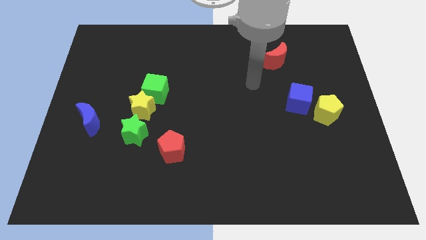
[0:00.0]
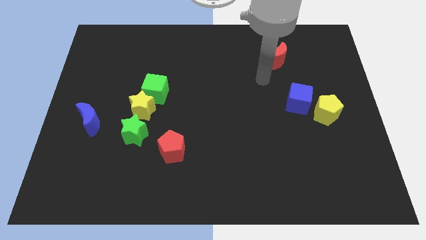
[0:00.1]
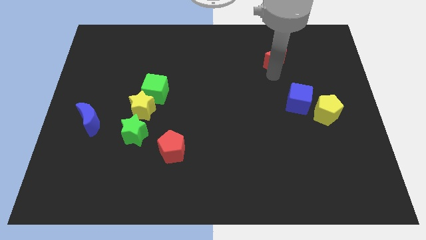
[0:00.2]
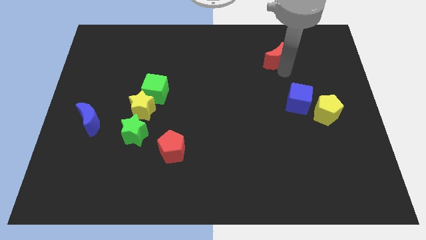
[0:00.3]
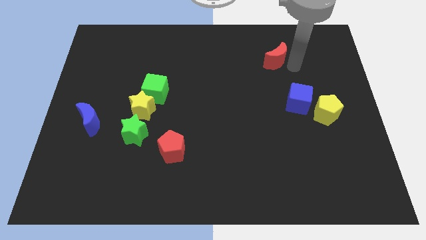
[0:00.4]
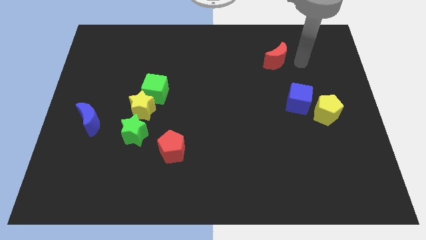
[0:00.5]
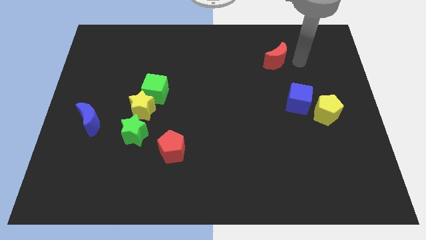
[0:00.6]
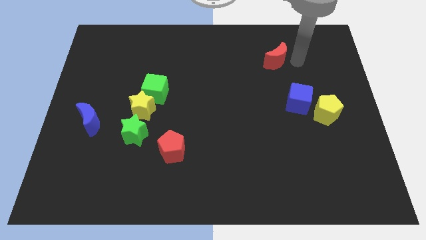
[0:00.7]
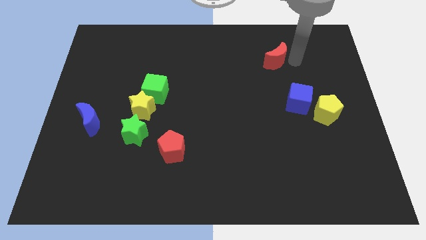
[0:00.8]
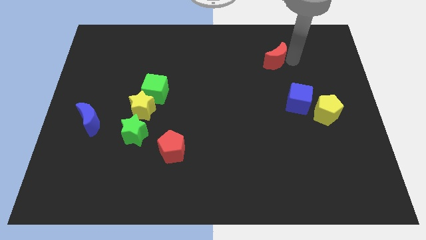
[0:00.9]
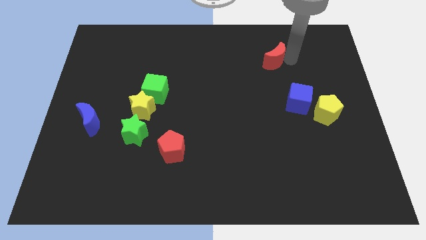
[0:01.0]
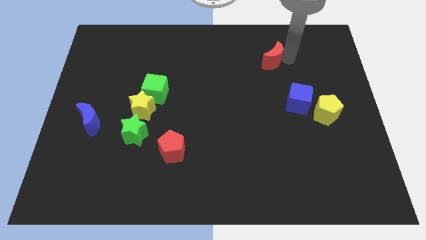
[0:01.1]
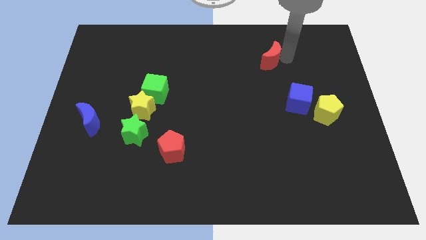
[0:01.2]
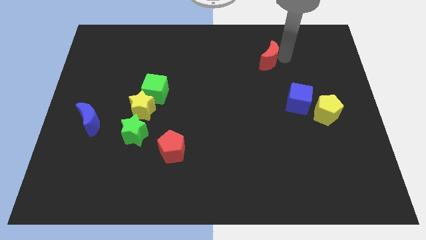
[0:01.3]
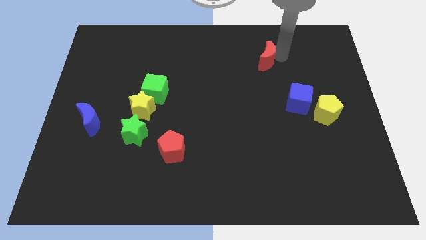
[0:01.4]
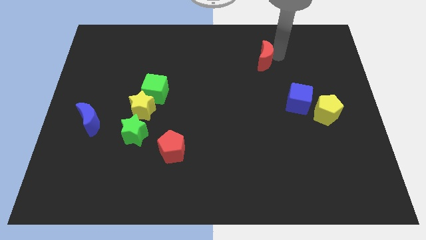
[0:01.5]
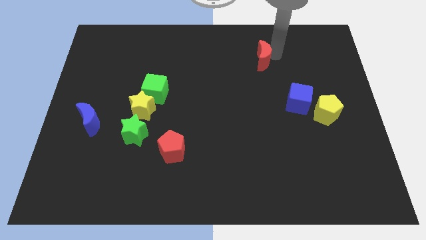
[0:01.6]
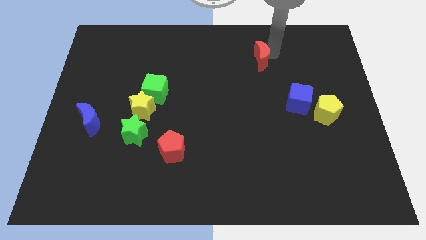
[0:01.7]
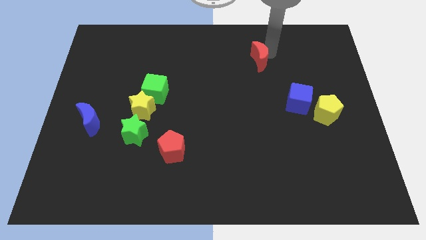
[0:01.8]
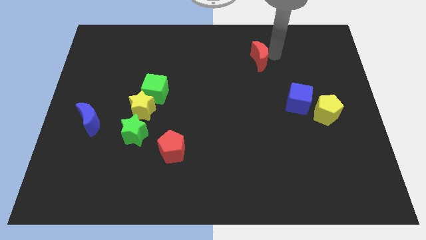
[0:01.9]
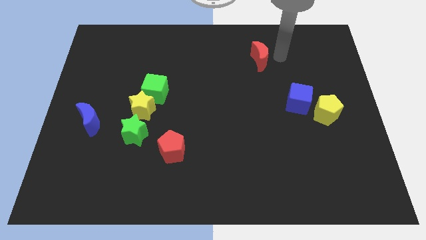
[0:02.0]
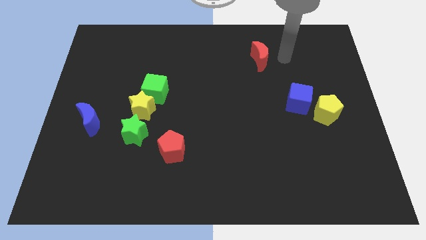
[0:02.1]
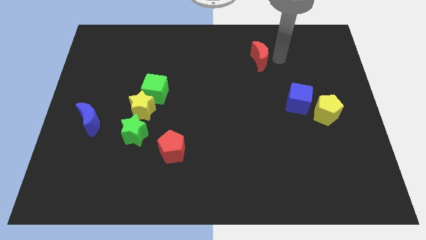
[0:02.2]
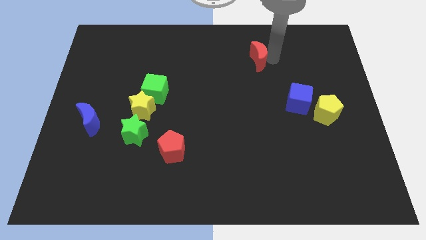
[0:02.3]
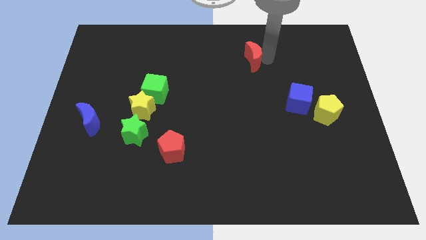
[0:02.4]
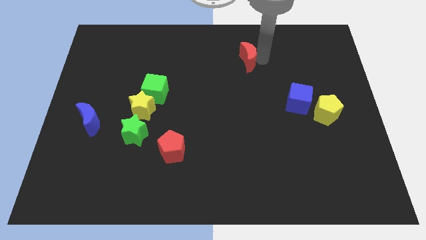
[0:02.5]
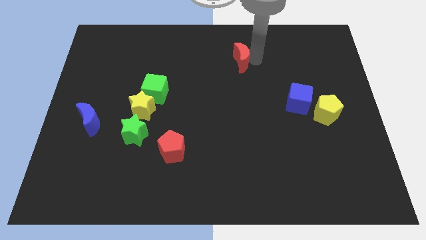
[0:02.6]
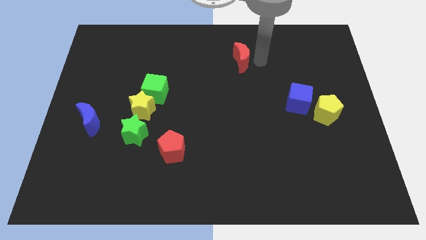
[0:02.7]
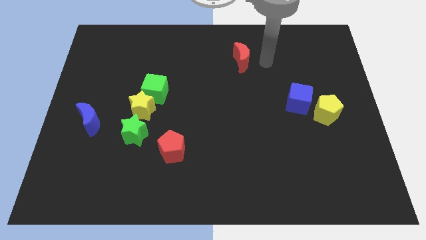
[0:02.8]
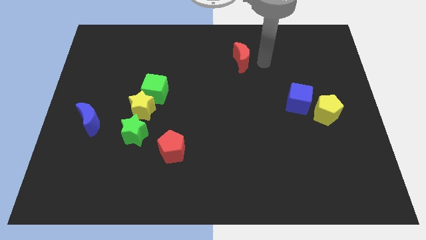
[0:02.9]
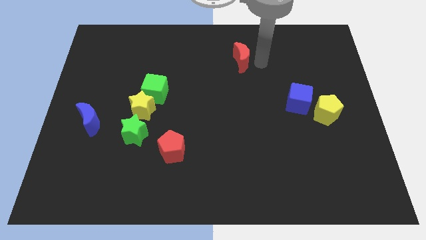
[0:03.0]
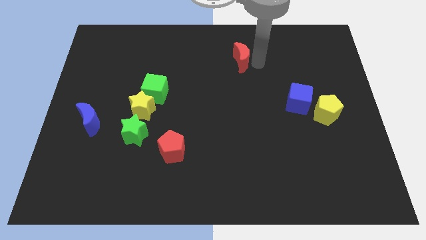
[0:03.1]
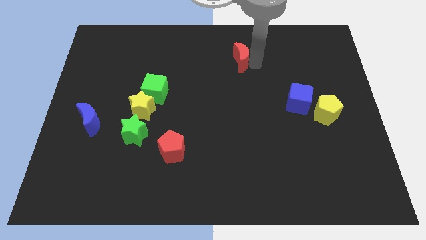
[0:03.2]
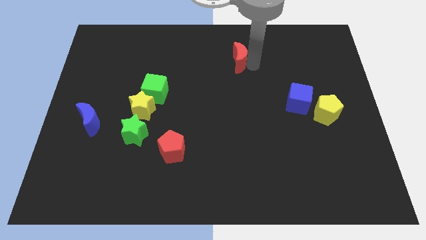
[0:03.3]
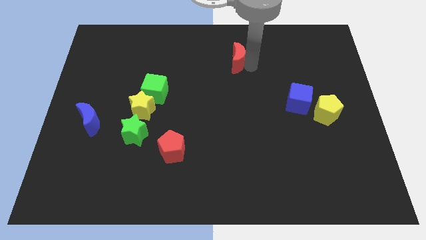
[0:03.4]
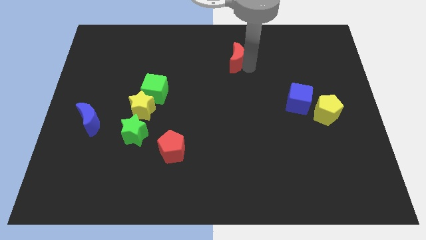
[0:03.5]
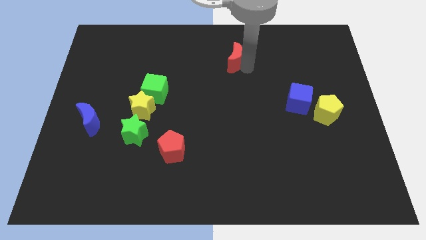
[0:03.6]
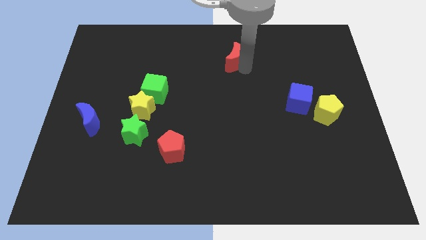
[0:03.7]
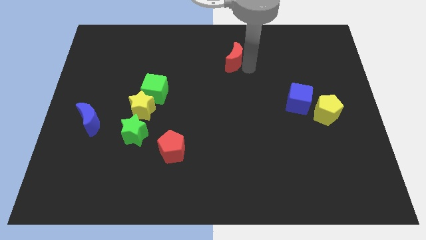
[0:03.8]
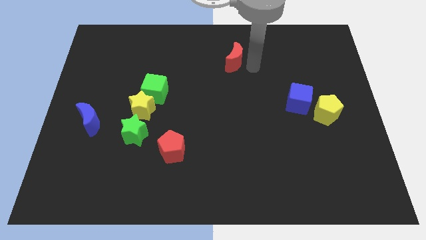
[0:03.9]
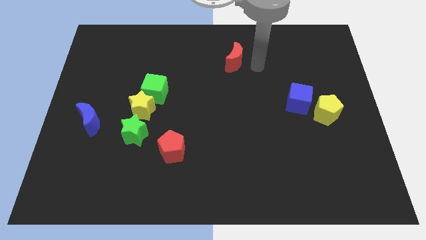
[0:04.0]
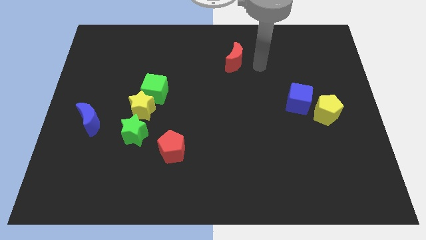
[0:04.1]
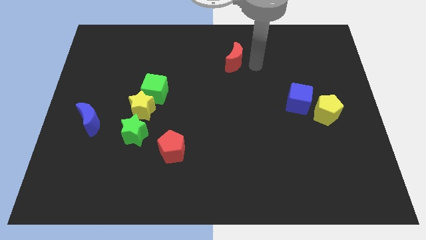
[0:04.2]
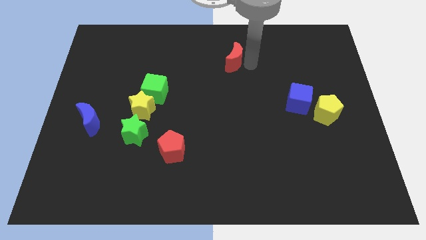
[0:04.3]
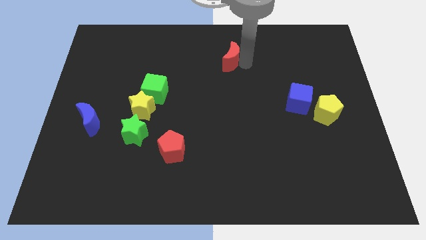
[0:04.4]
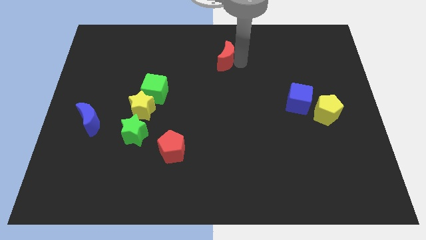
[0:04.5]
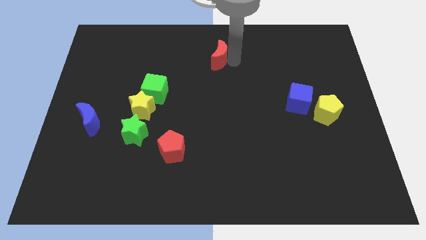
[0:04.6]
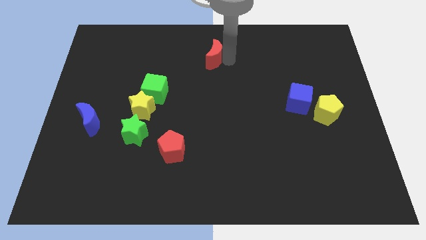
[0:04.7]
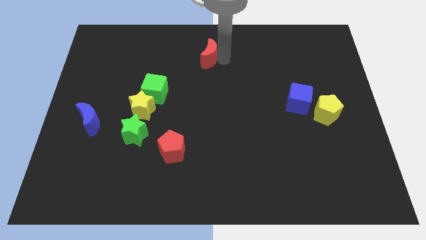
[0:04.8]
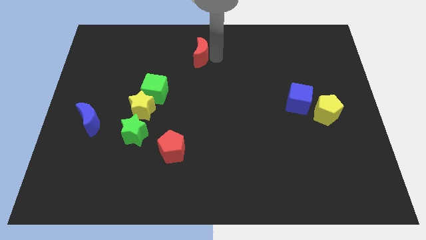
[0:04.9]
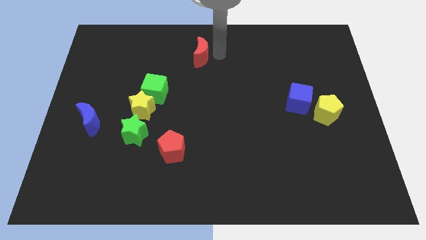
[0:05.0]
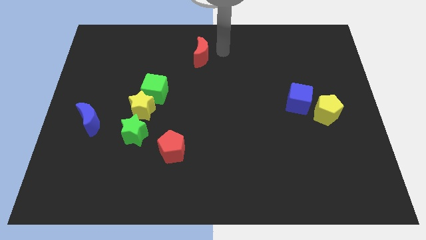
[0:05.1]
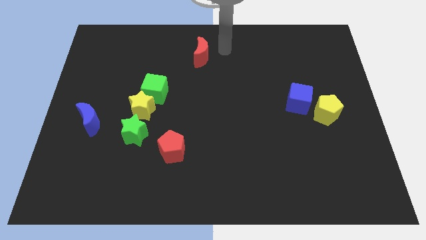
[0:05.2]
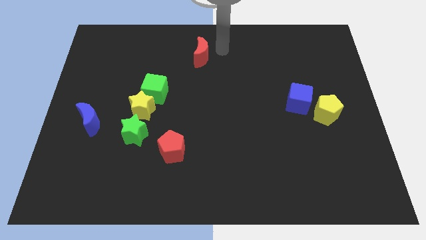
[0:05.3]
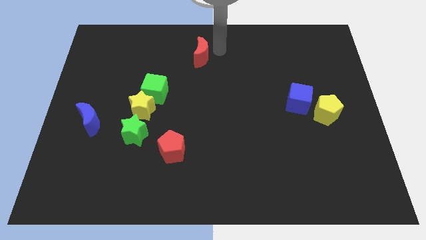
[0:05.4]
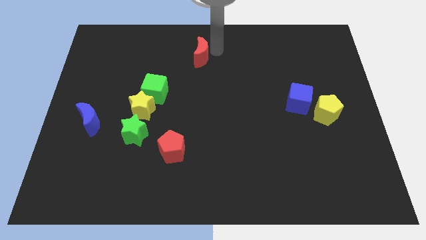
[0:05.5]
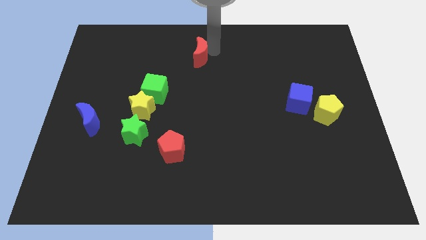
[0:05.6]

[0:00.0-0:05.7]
push the red moon to the left

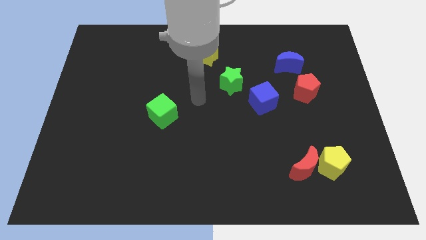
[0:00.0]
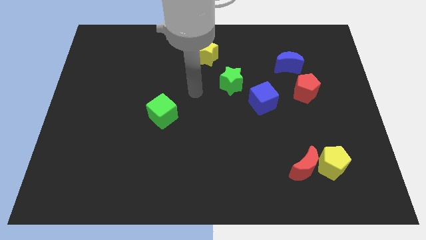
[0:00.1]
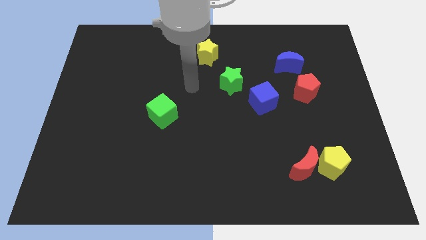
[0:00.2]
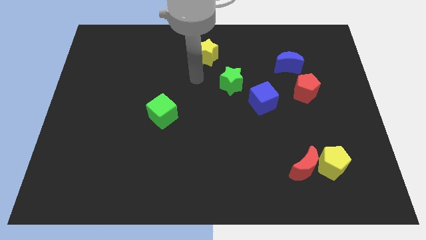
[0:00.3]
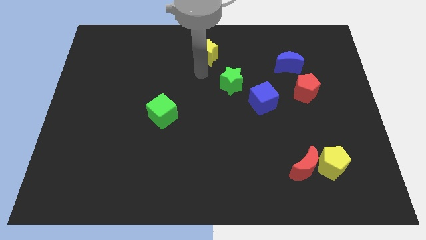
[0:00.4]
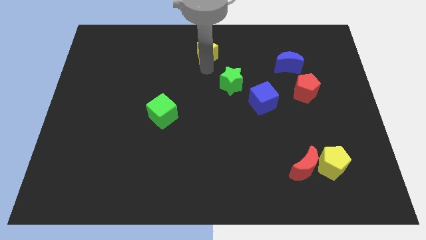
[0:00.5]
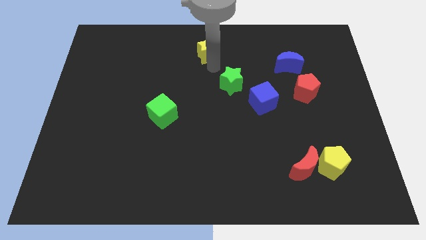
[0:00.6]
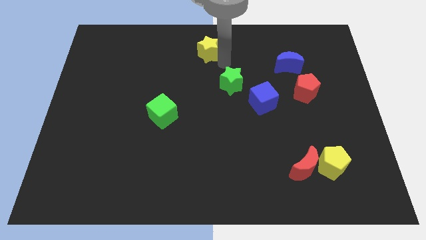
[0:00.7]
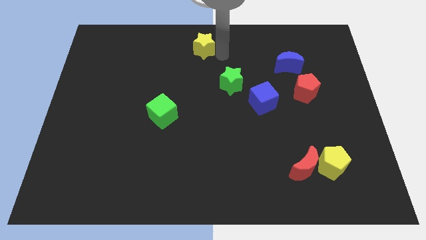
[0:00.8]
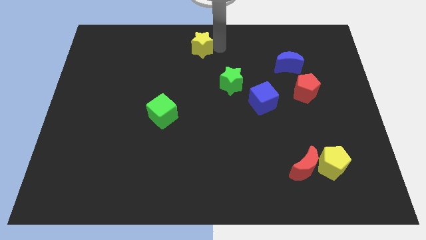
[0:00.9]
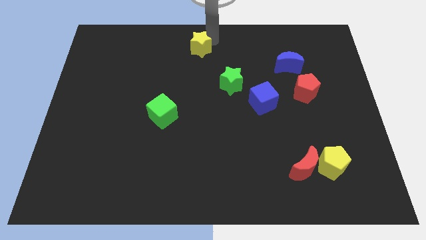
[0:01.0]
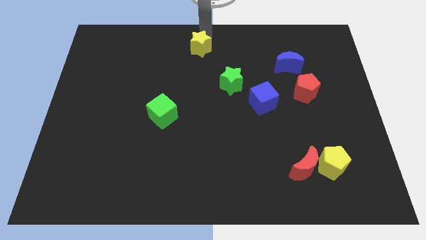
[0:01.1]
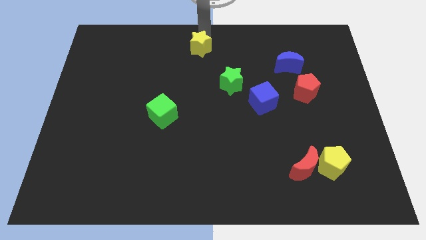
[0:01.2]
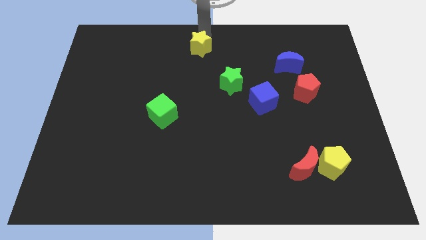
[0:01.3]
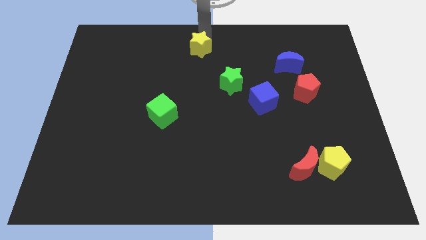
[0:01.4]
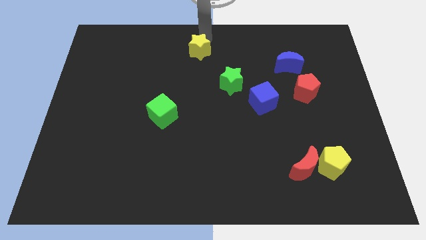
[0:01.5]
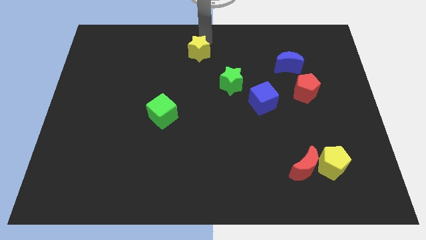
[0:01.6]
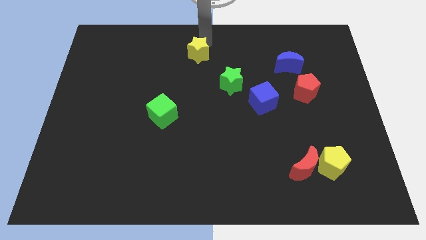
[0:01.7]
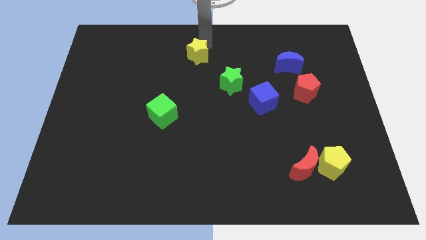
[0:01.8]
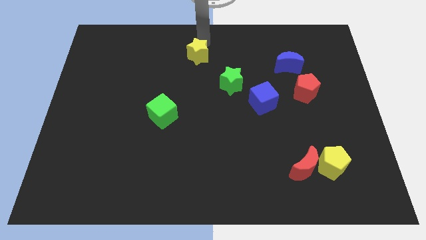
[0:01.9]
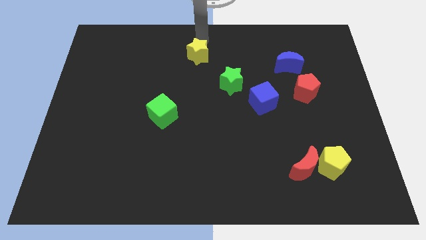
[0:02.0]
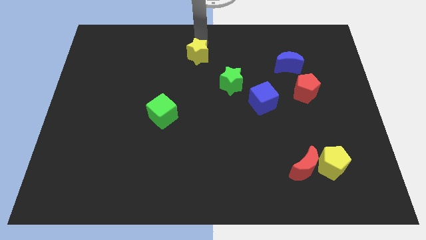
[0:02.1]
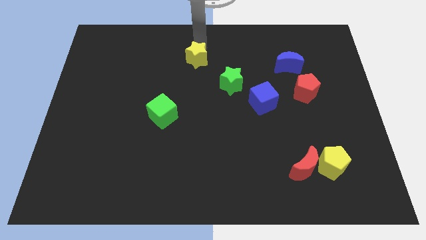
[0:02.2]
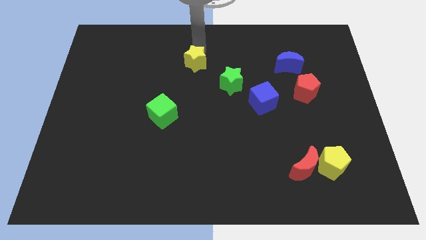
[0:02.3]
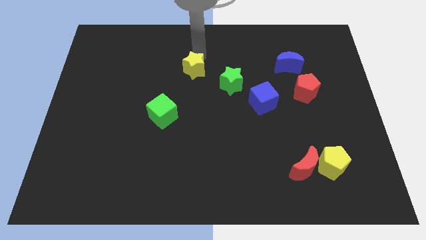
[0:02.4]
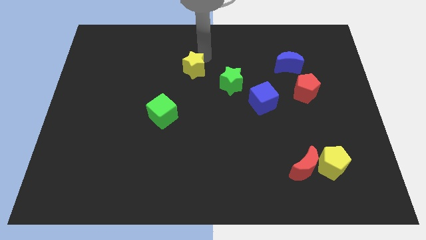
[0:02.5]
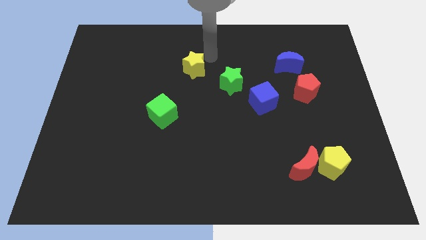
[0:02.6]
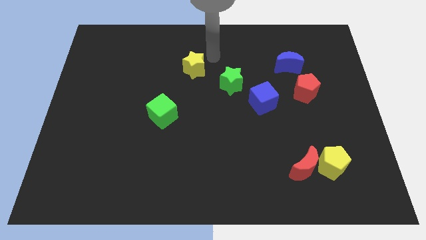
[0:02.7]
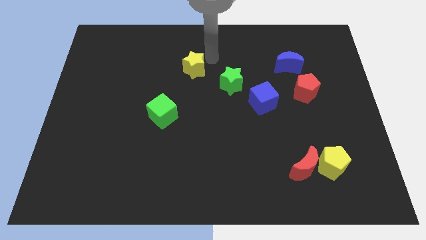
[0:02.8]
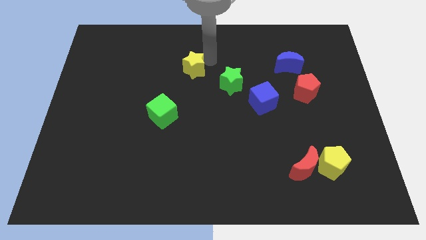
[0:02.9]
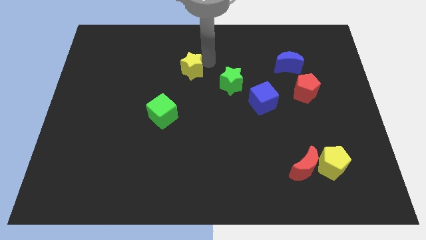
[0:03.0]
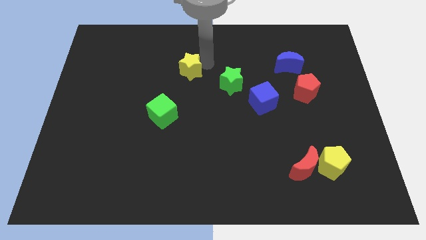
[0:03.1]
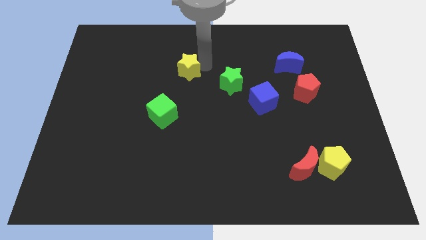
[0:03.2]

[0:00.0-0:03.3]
slightly slide the yellow star down and left diagonally
